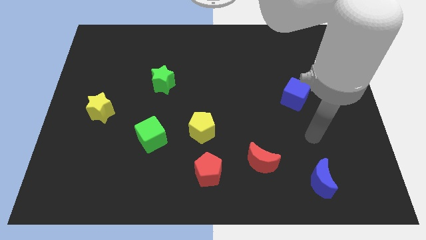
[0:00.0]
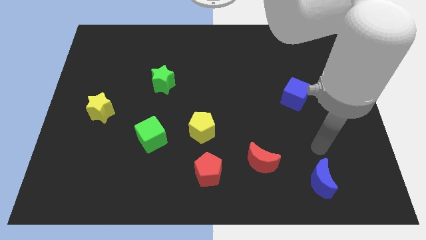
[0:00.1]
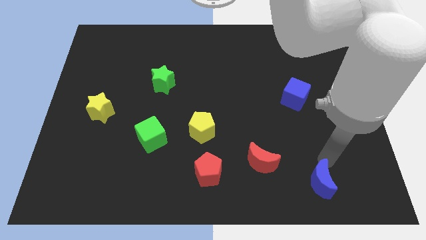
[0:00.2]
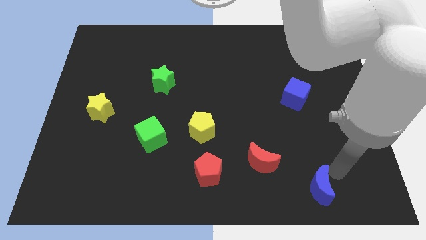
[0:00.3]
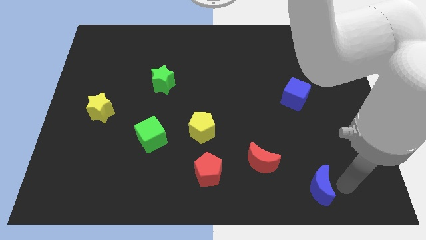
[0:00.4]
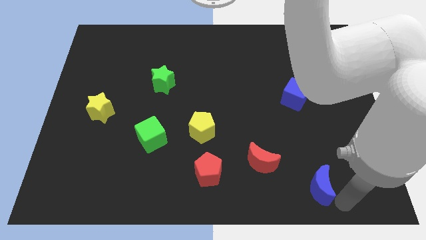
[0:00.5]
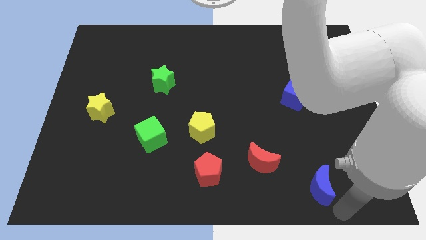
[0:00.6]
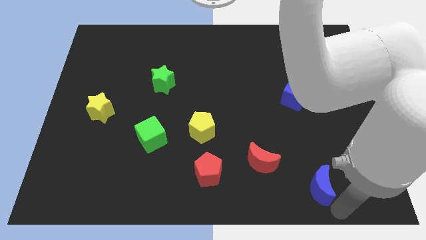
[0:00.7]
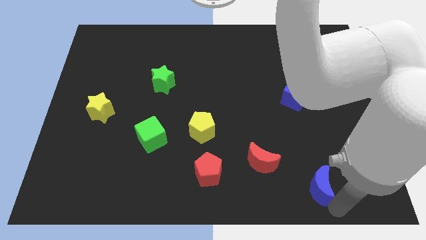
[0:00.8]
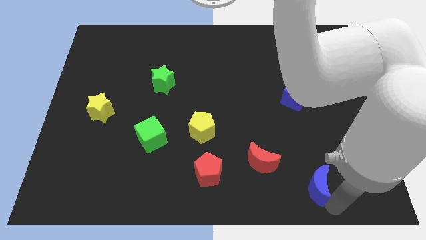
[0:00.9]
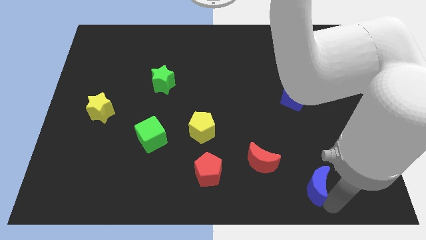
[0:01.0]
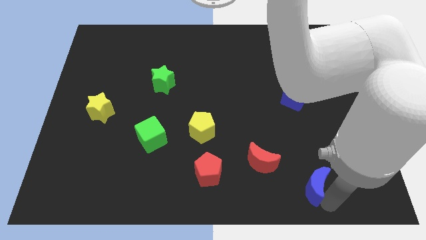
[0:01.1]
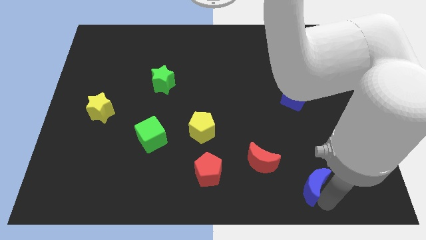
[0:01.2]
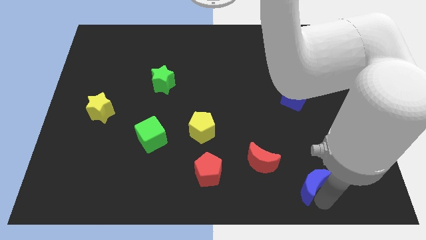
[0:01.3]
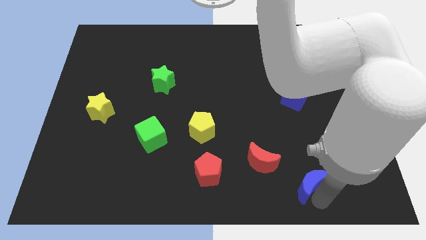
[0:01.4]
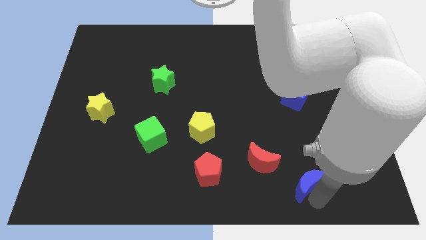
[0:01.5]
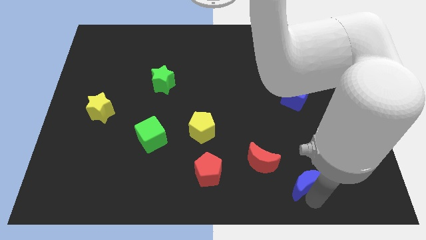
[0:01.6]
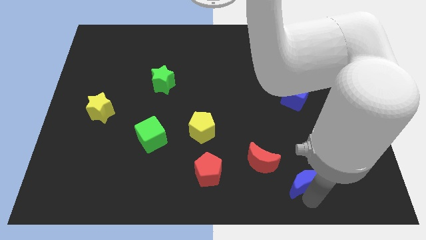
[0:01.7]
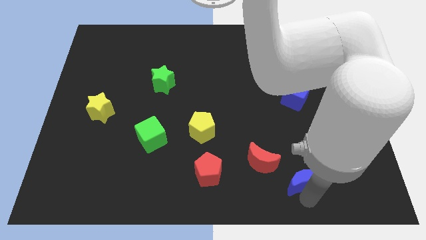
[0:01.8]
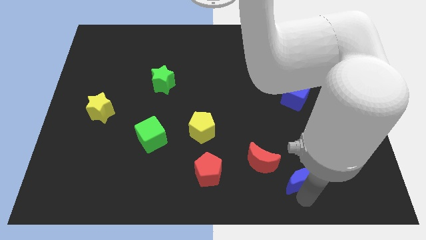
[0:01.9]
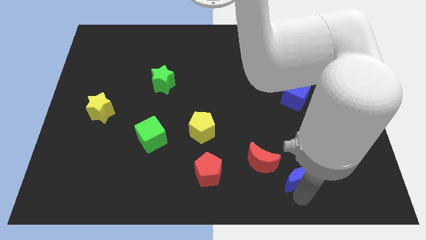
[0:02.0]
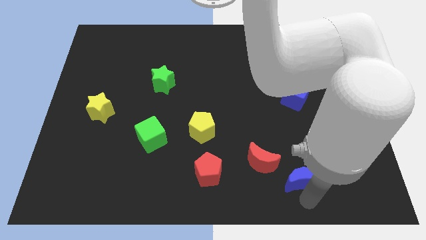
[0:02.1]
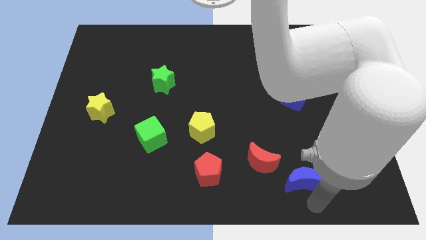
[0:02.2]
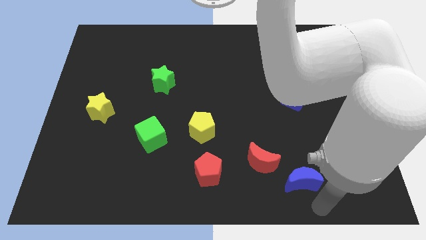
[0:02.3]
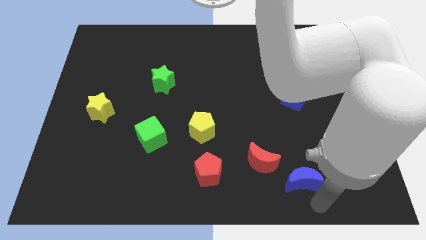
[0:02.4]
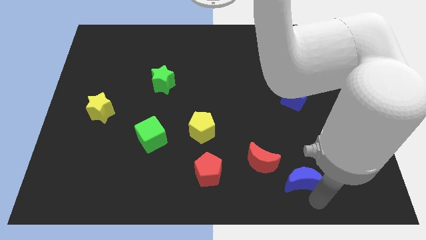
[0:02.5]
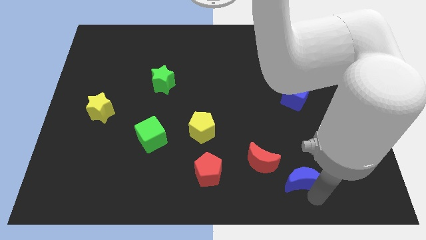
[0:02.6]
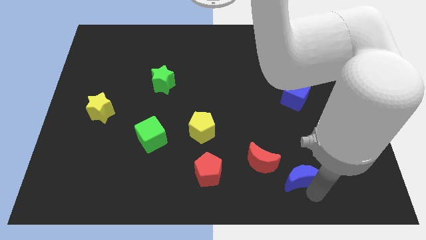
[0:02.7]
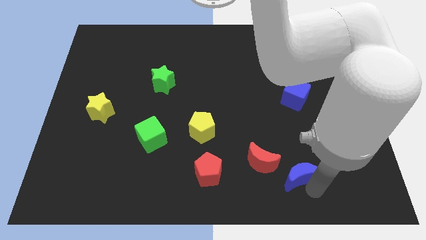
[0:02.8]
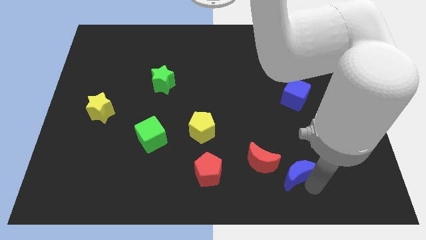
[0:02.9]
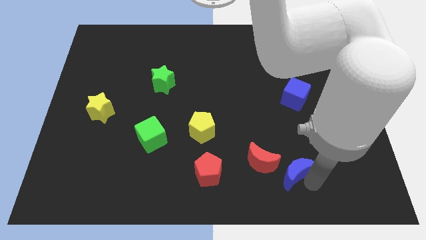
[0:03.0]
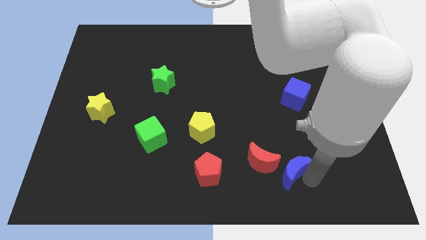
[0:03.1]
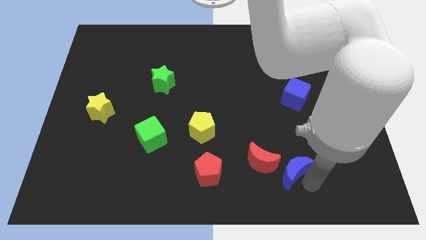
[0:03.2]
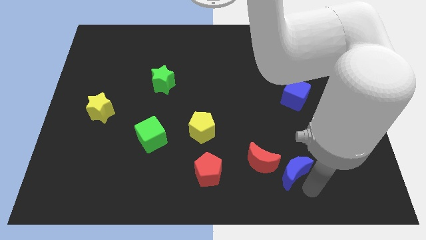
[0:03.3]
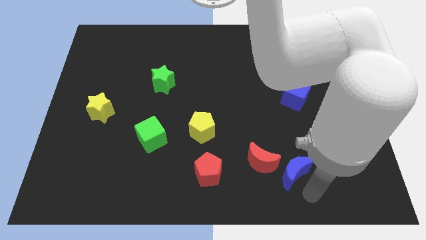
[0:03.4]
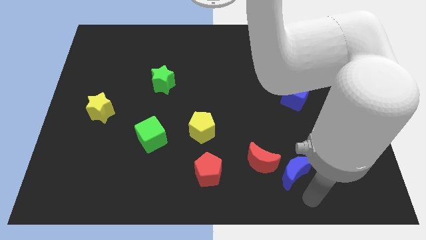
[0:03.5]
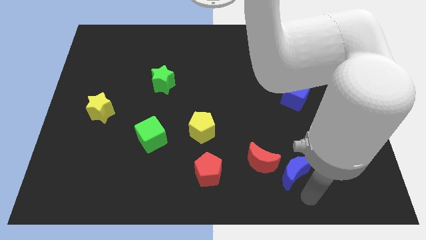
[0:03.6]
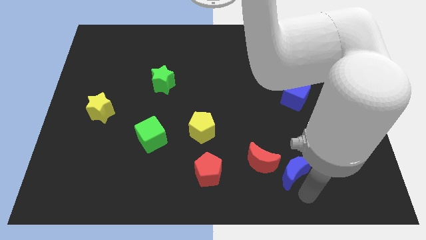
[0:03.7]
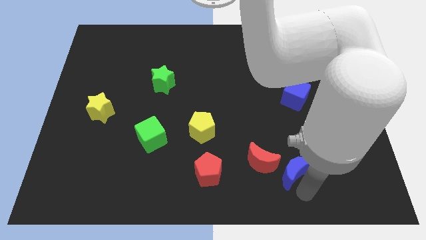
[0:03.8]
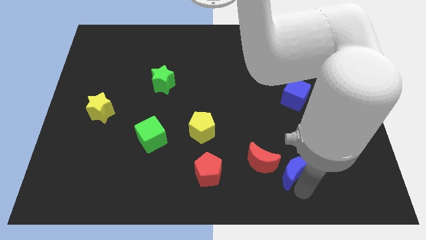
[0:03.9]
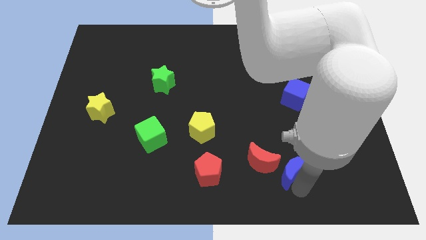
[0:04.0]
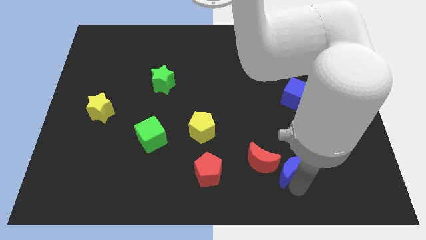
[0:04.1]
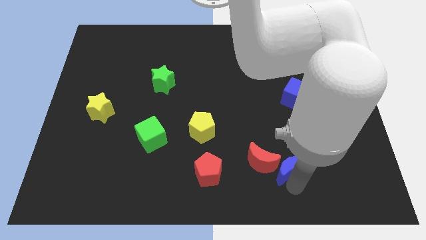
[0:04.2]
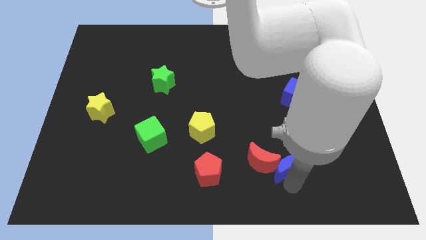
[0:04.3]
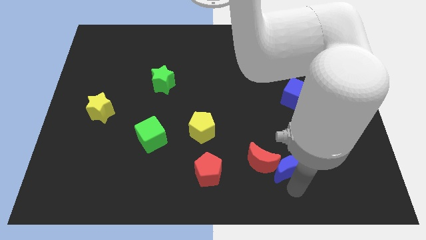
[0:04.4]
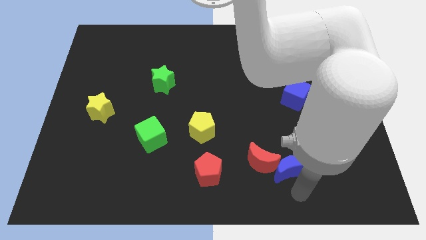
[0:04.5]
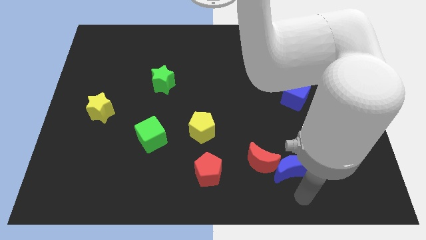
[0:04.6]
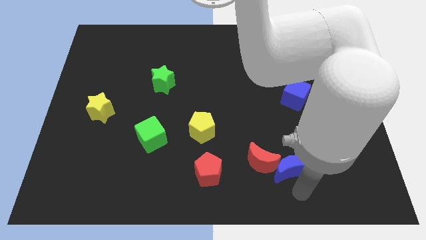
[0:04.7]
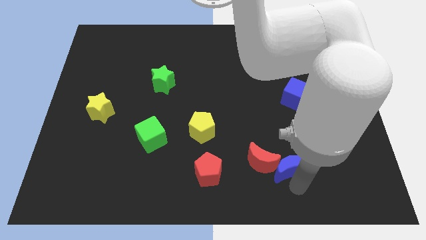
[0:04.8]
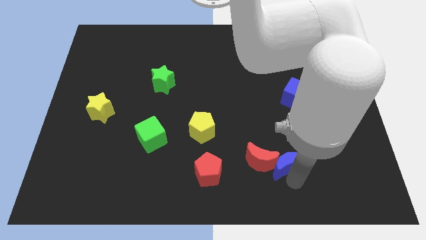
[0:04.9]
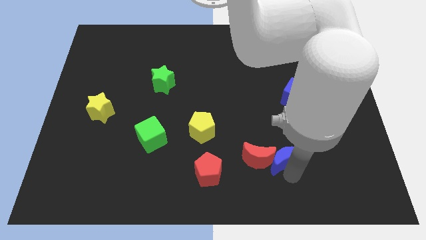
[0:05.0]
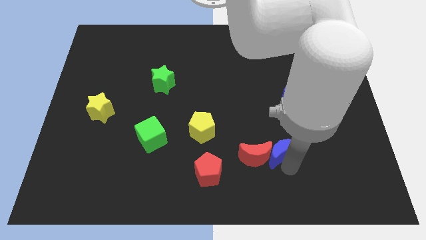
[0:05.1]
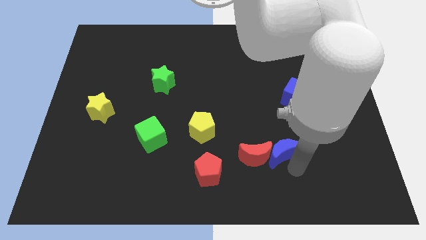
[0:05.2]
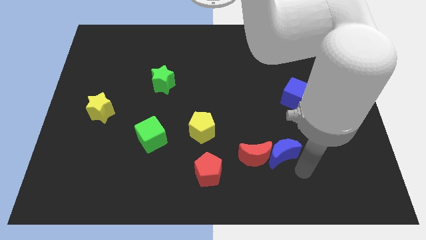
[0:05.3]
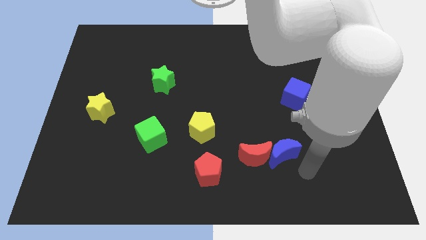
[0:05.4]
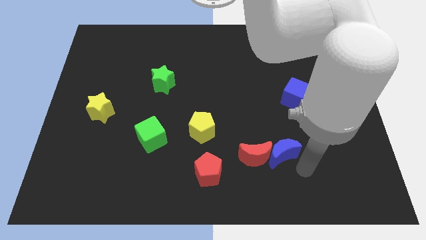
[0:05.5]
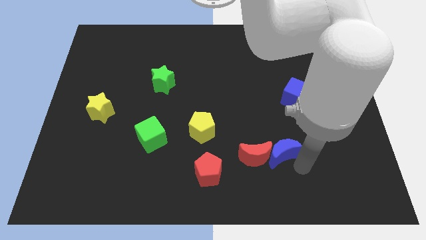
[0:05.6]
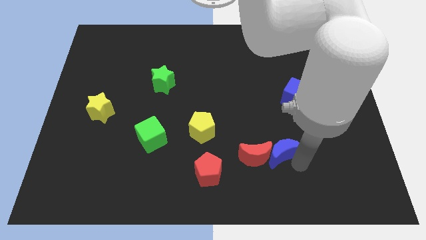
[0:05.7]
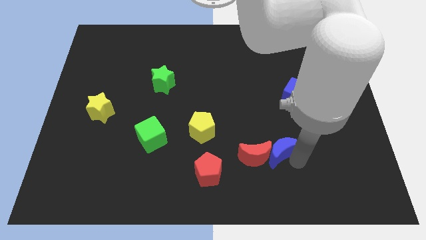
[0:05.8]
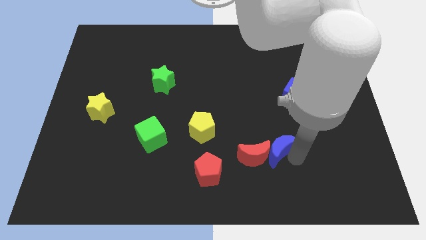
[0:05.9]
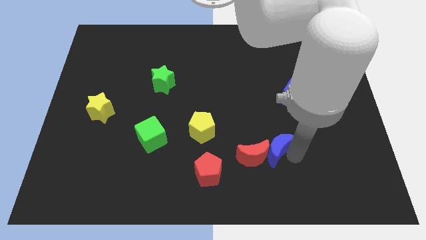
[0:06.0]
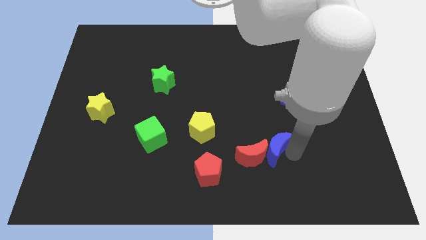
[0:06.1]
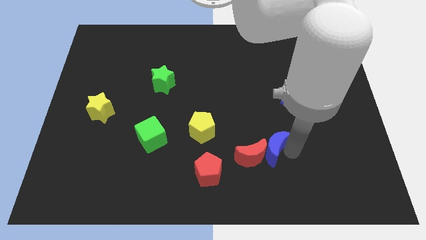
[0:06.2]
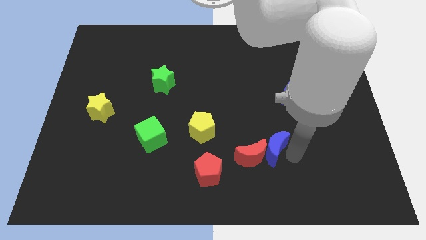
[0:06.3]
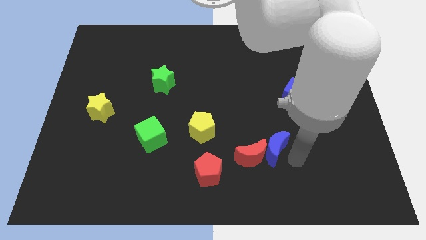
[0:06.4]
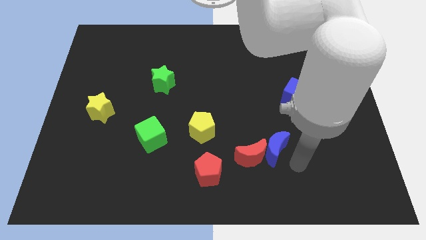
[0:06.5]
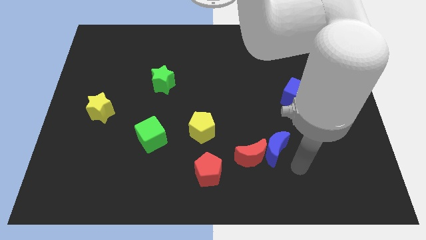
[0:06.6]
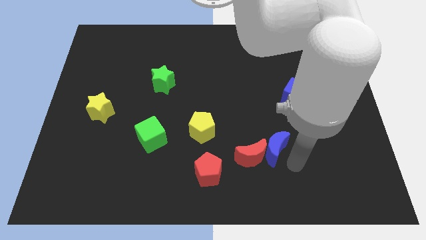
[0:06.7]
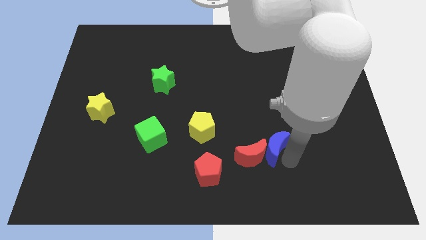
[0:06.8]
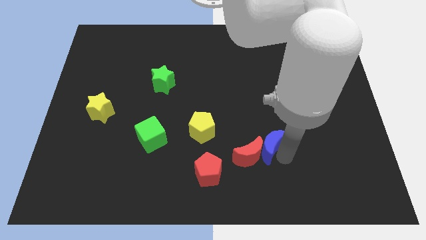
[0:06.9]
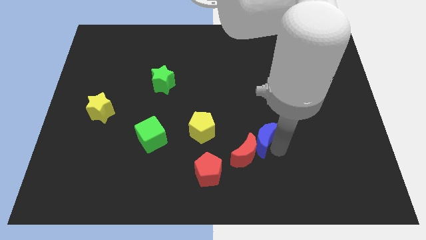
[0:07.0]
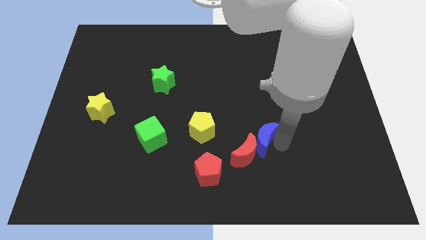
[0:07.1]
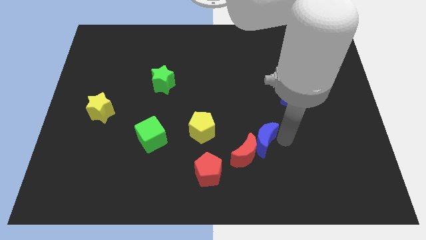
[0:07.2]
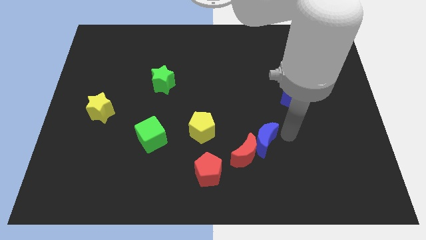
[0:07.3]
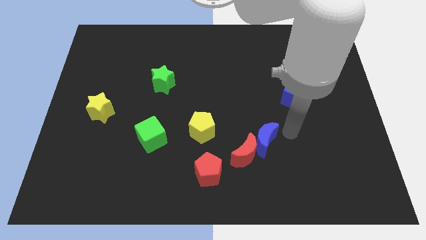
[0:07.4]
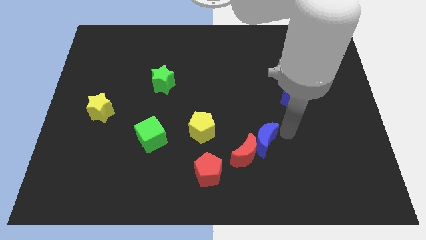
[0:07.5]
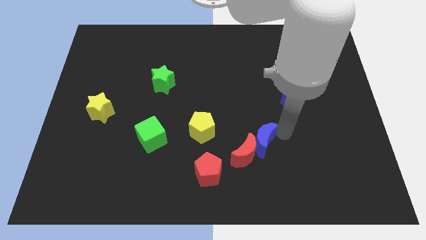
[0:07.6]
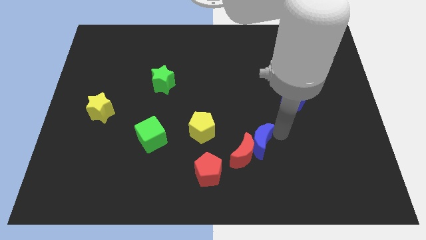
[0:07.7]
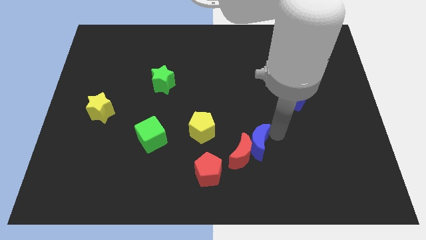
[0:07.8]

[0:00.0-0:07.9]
push the blue moon to the top right side of the red pentagon
